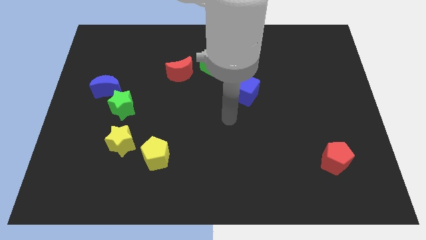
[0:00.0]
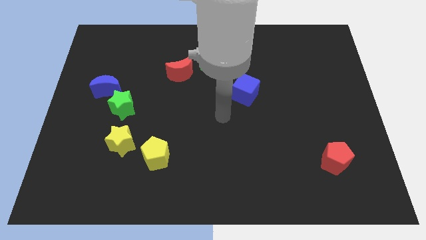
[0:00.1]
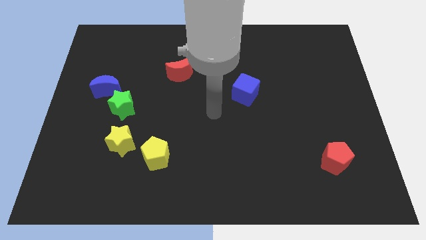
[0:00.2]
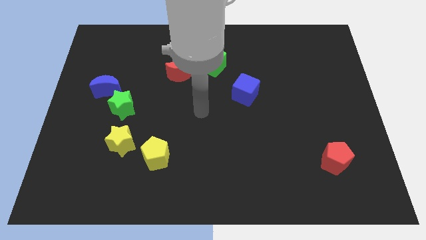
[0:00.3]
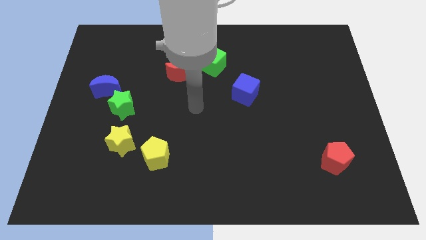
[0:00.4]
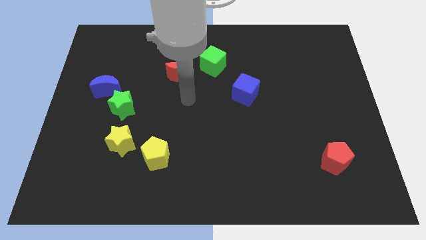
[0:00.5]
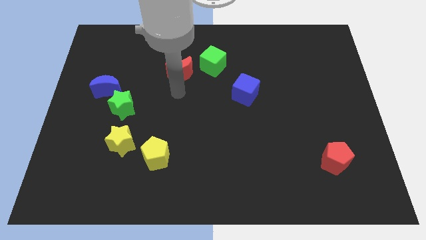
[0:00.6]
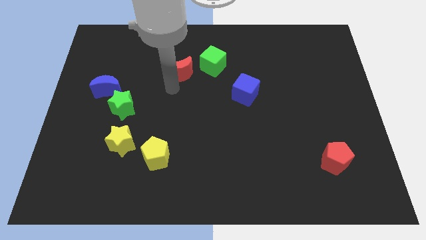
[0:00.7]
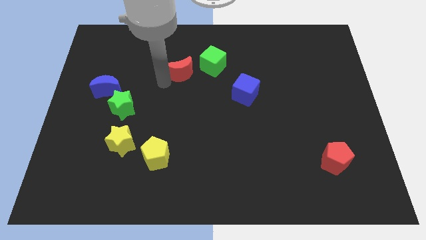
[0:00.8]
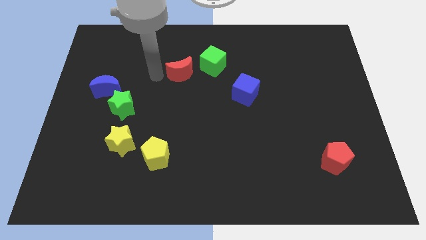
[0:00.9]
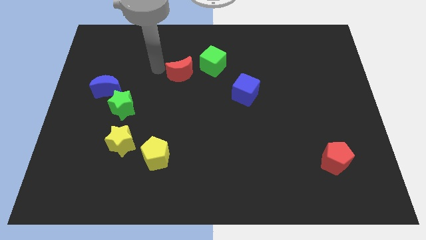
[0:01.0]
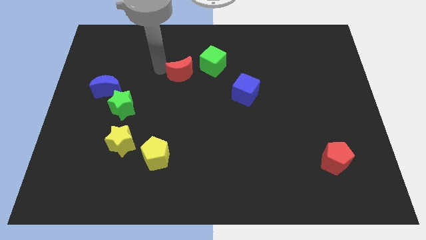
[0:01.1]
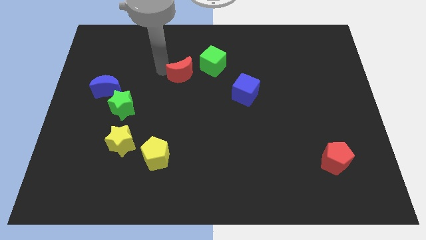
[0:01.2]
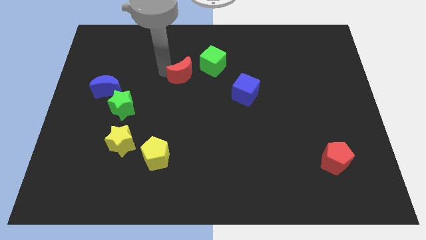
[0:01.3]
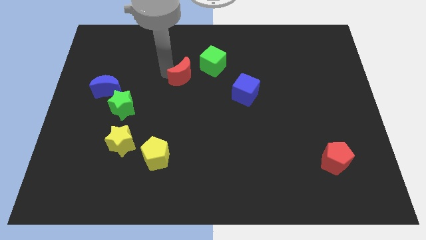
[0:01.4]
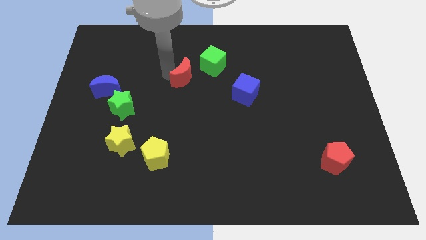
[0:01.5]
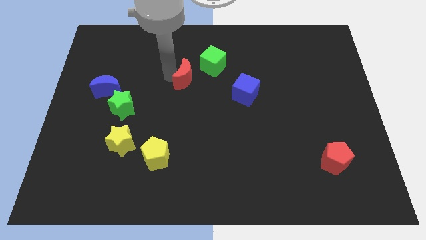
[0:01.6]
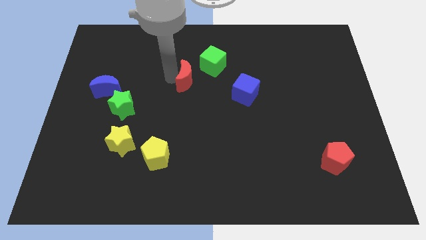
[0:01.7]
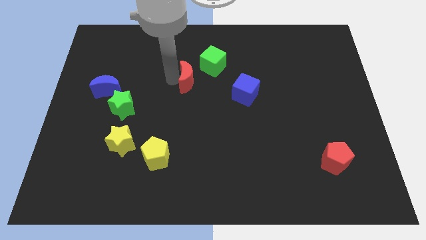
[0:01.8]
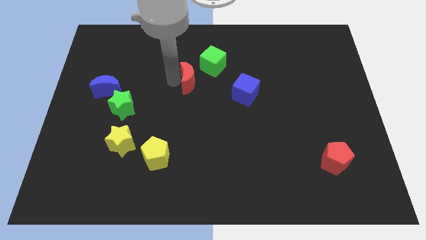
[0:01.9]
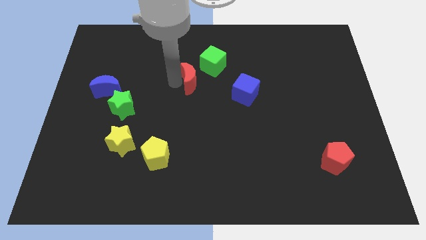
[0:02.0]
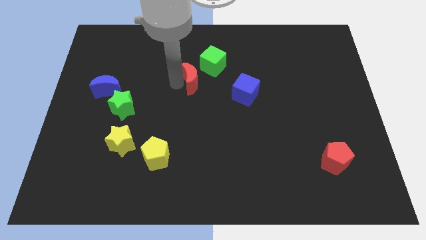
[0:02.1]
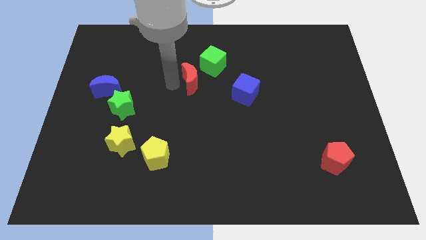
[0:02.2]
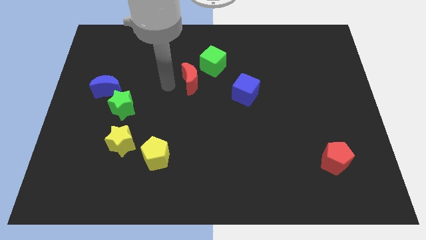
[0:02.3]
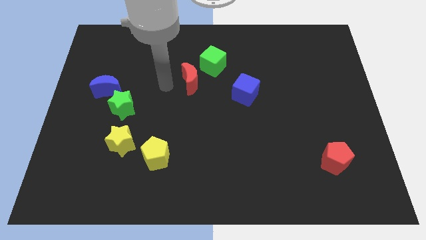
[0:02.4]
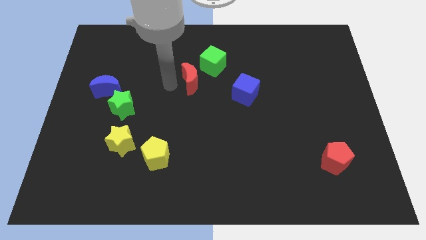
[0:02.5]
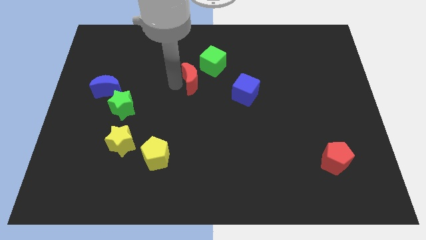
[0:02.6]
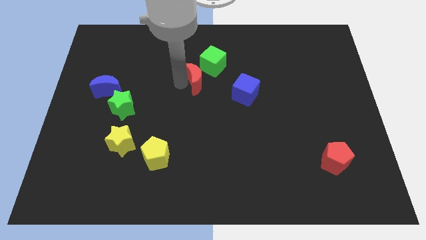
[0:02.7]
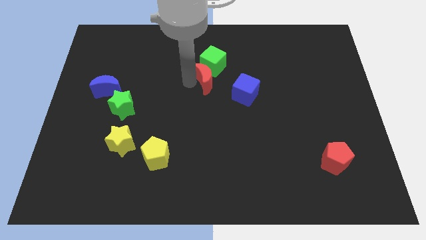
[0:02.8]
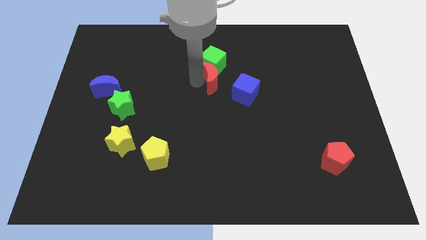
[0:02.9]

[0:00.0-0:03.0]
slide the red moon to the right slightly

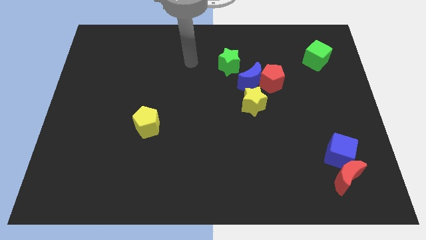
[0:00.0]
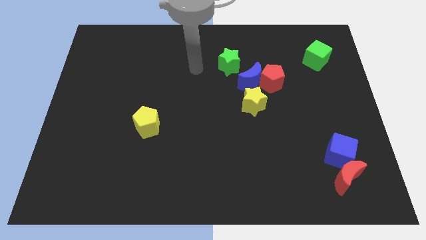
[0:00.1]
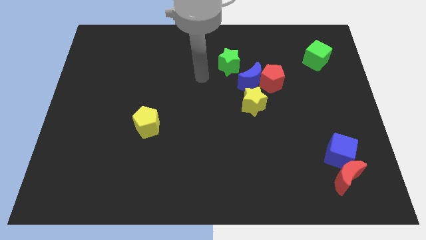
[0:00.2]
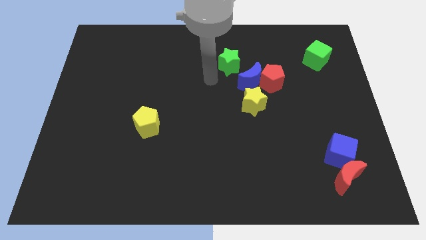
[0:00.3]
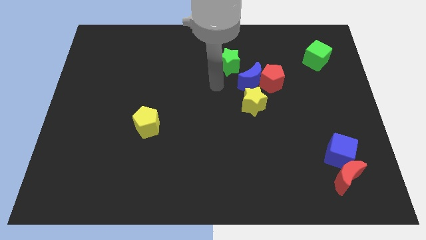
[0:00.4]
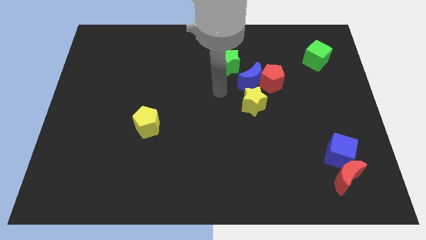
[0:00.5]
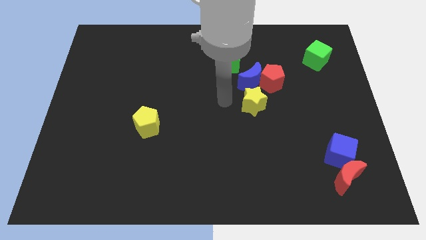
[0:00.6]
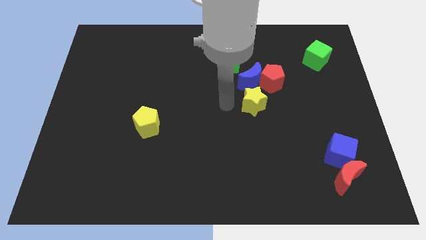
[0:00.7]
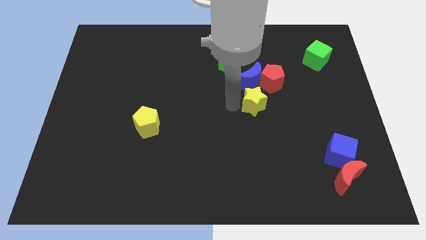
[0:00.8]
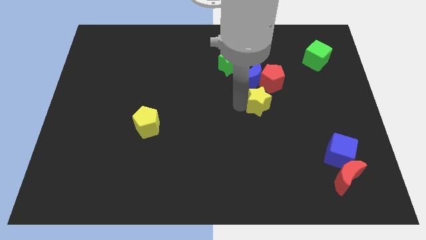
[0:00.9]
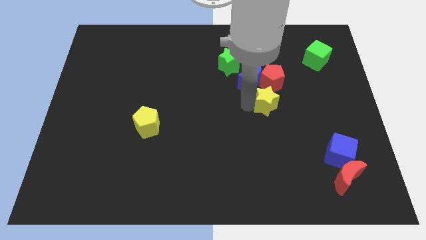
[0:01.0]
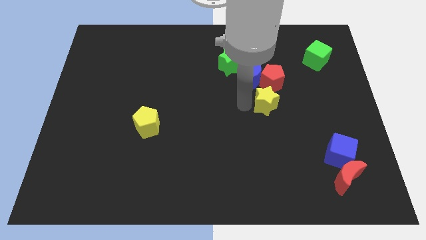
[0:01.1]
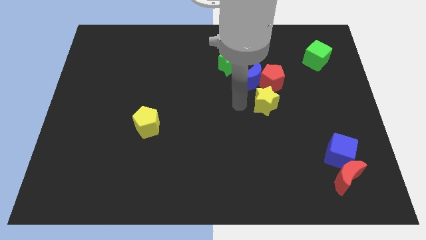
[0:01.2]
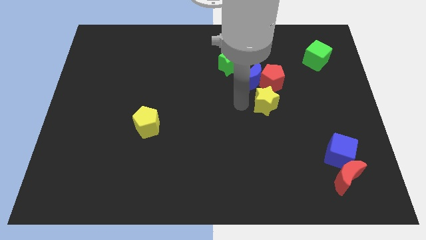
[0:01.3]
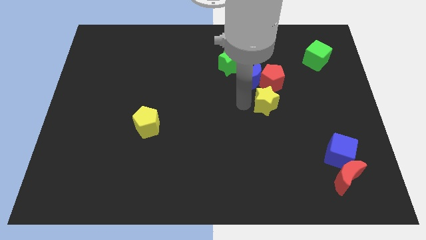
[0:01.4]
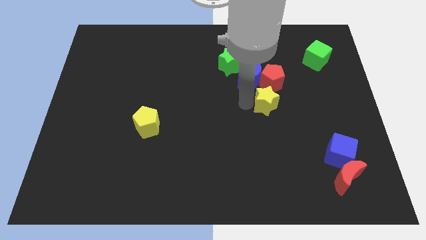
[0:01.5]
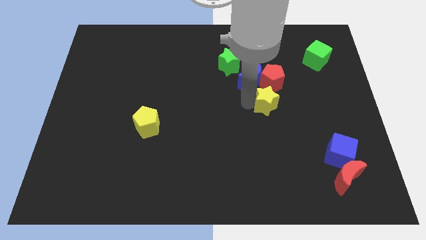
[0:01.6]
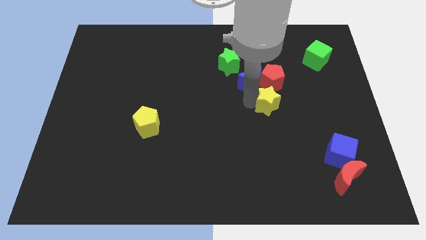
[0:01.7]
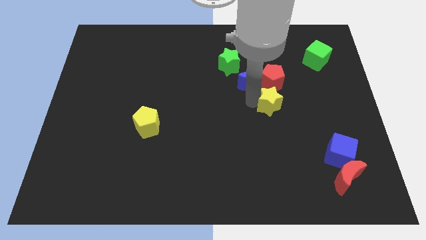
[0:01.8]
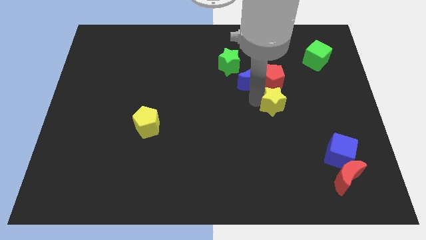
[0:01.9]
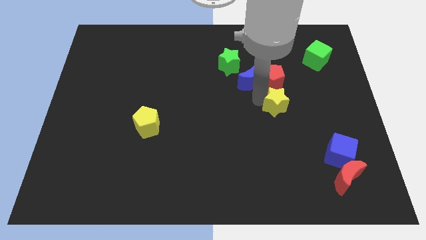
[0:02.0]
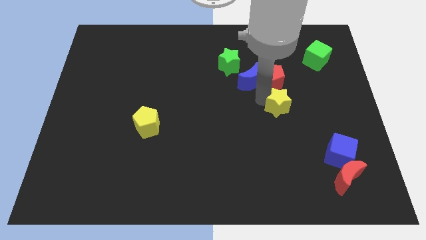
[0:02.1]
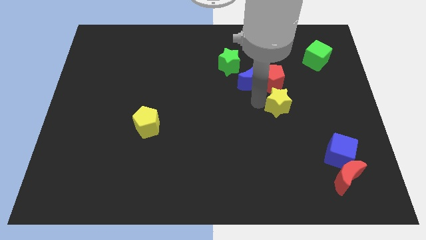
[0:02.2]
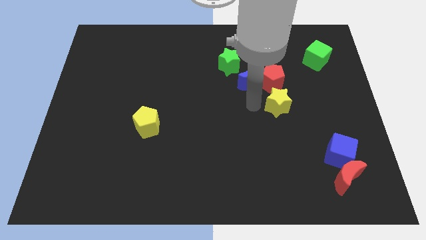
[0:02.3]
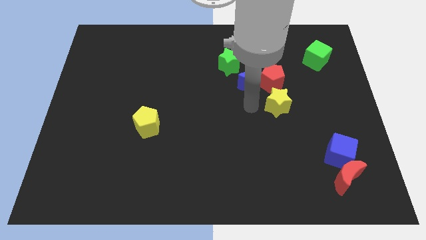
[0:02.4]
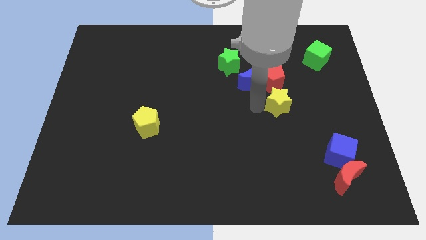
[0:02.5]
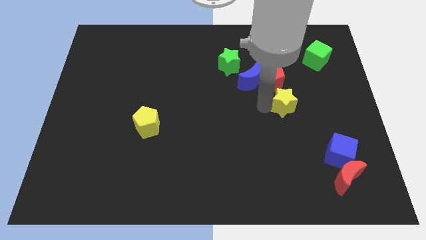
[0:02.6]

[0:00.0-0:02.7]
slide the yellow star a little bit to the right

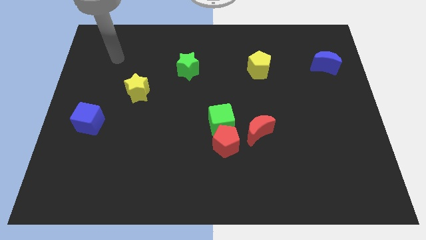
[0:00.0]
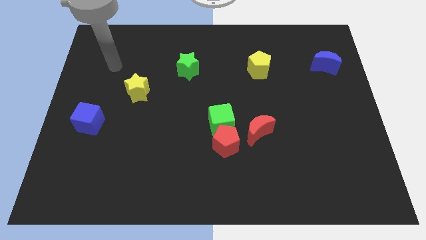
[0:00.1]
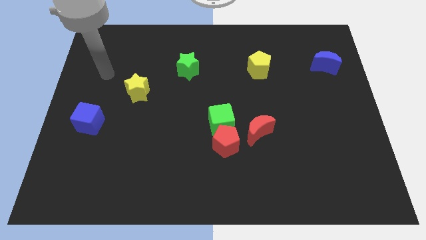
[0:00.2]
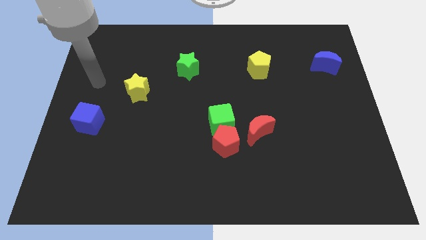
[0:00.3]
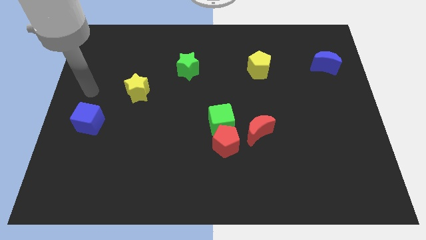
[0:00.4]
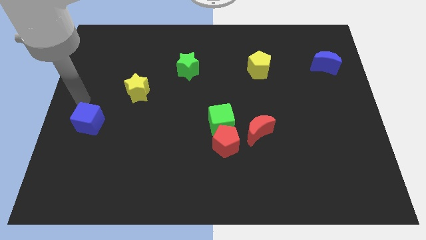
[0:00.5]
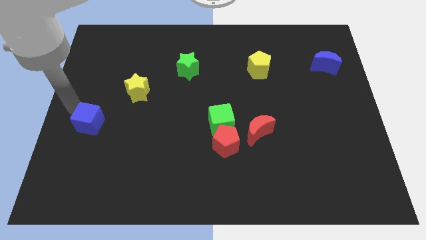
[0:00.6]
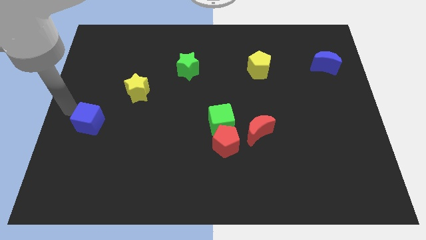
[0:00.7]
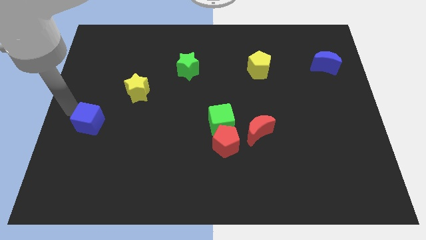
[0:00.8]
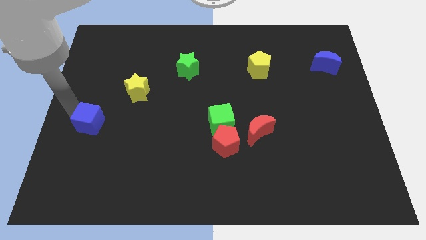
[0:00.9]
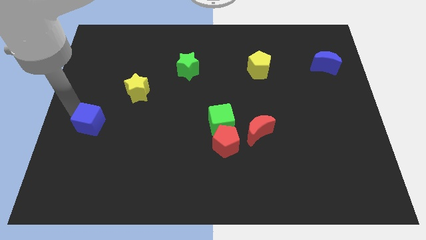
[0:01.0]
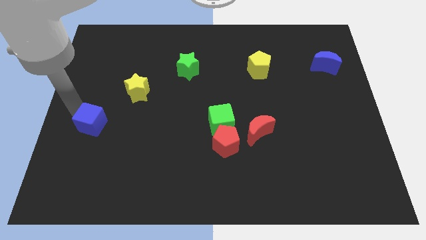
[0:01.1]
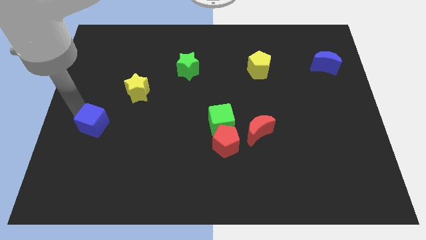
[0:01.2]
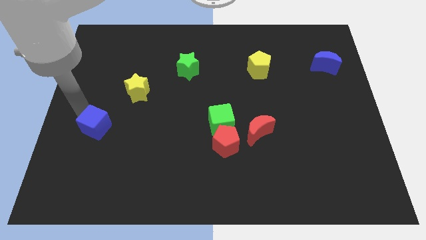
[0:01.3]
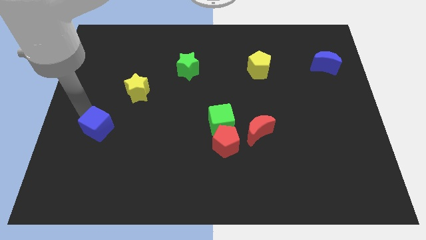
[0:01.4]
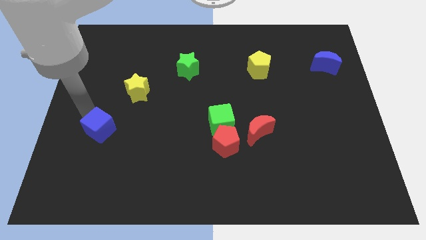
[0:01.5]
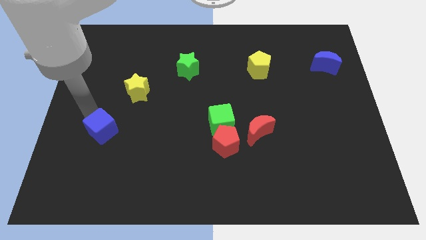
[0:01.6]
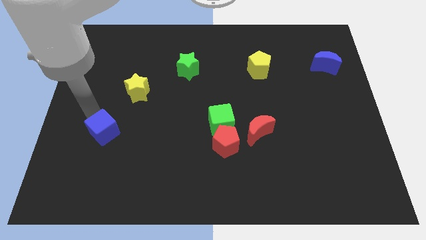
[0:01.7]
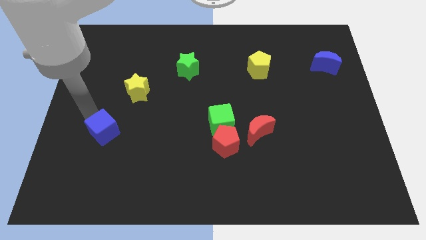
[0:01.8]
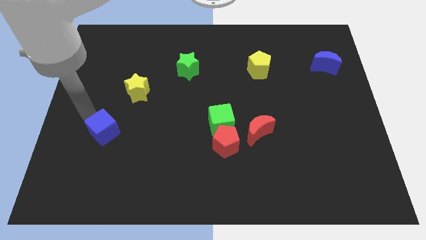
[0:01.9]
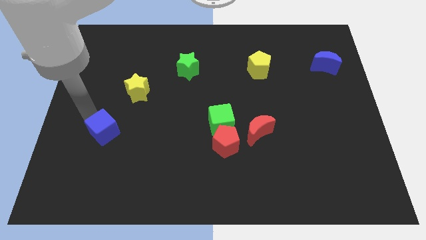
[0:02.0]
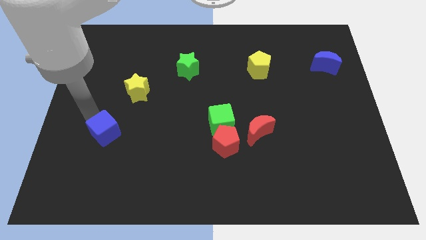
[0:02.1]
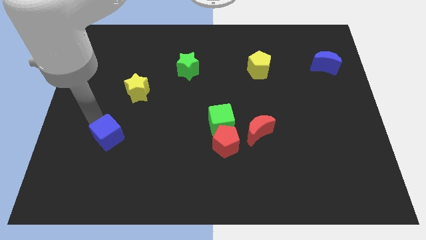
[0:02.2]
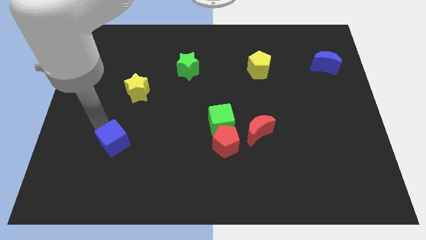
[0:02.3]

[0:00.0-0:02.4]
move the blue cube slightly diagonally down and to the right

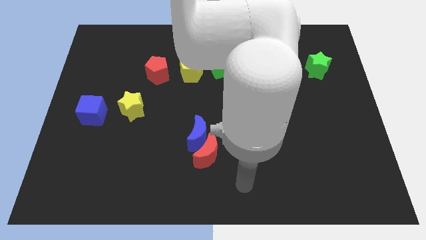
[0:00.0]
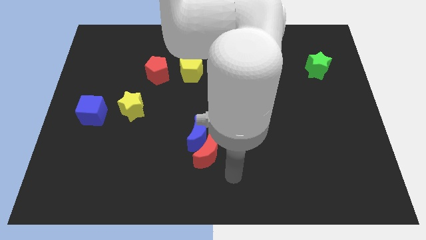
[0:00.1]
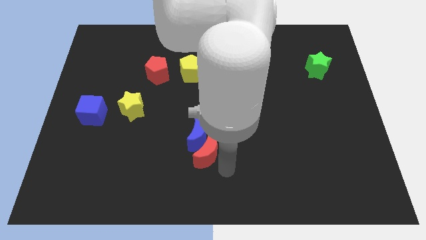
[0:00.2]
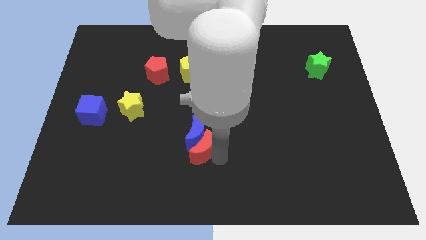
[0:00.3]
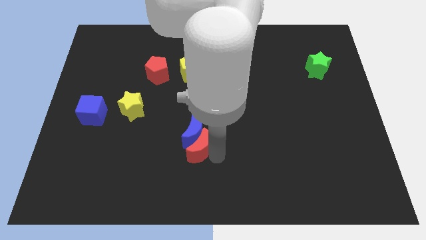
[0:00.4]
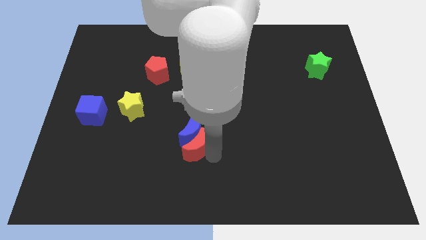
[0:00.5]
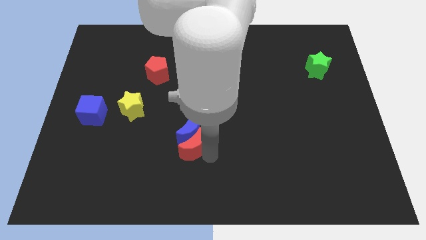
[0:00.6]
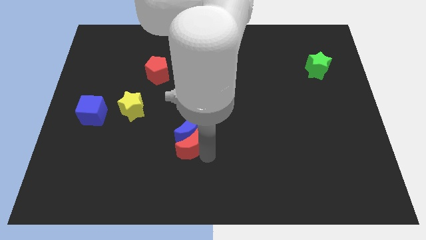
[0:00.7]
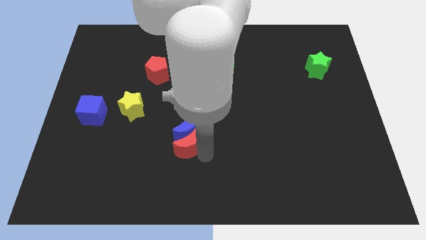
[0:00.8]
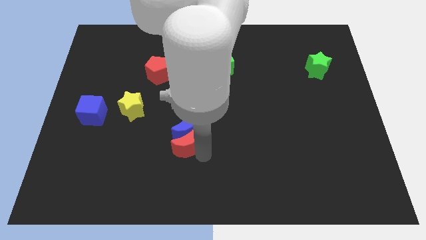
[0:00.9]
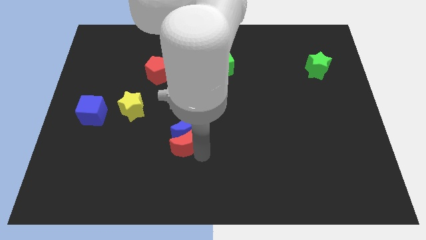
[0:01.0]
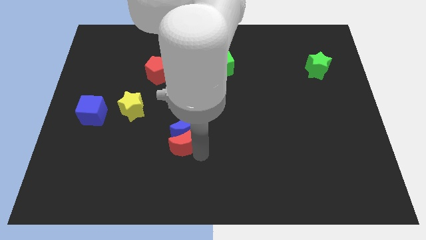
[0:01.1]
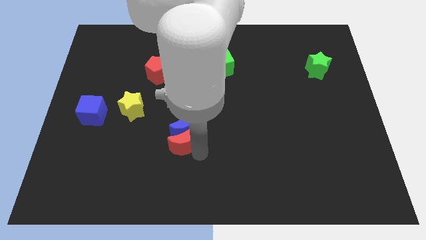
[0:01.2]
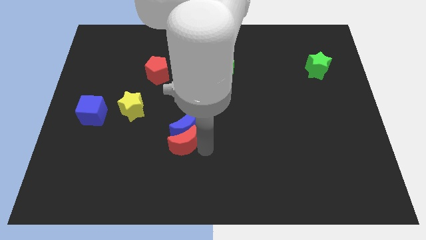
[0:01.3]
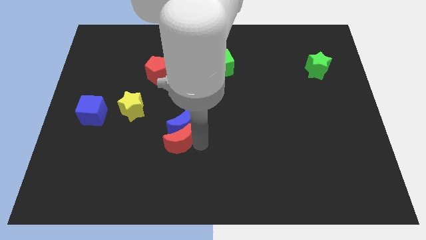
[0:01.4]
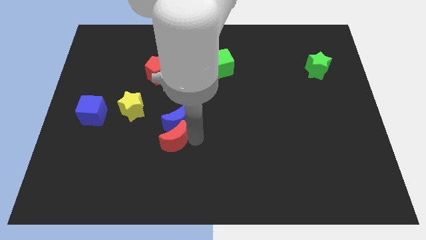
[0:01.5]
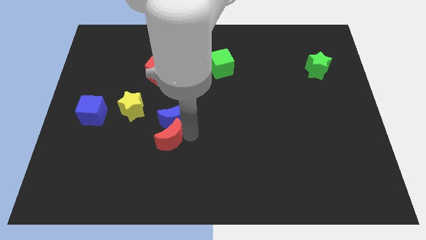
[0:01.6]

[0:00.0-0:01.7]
slightly slide the blue moon up and to the left diagonally
